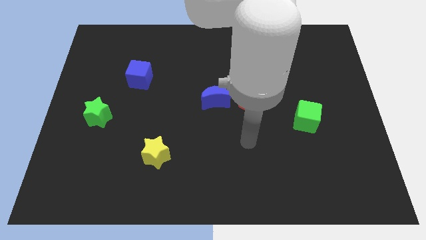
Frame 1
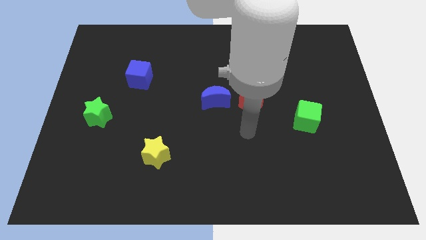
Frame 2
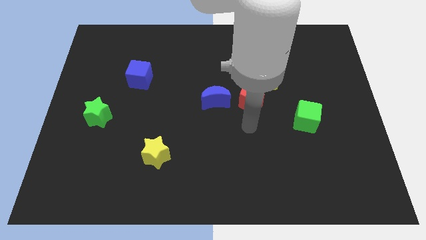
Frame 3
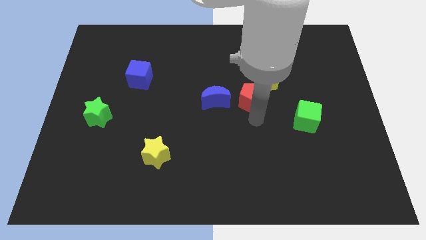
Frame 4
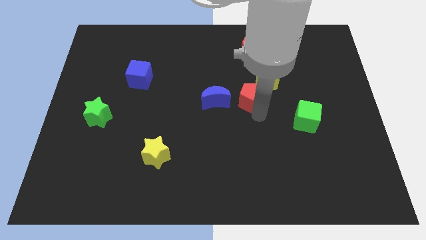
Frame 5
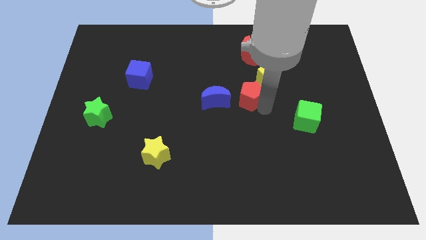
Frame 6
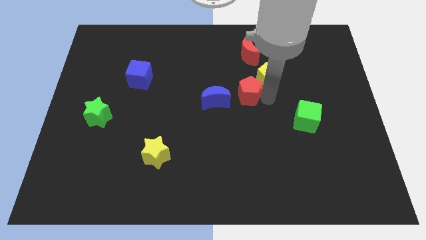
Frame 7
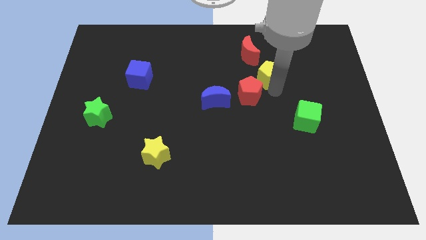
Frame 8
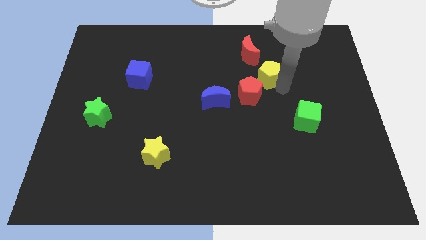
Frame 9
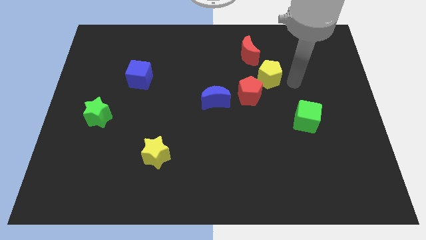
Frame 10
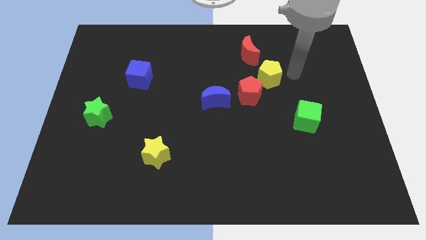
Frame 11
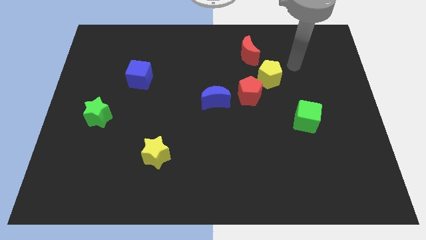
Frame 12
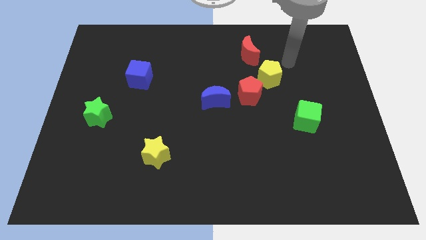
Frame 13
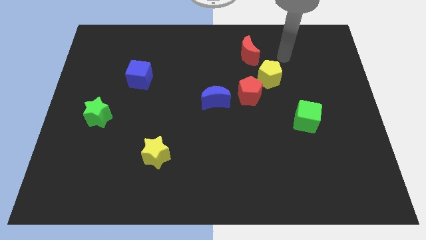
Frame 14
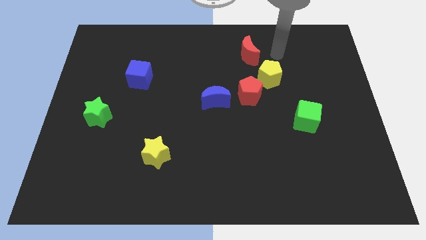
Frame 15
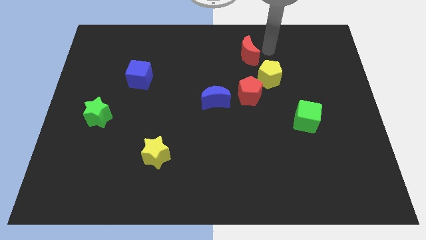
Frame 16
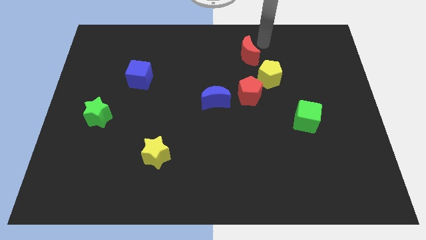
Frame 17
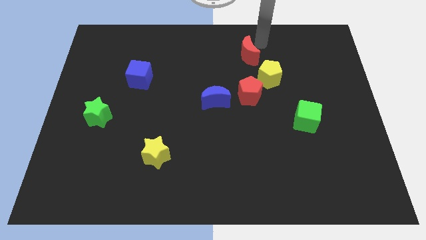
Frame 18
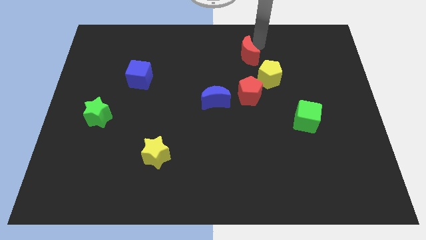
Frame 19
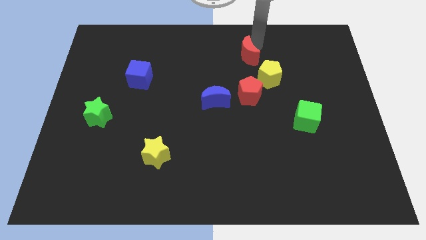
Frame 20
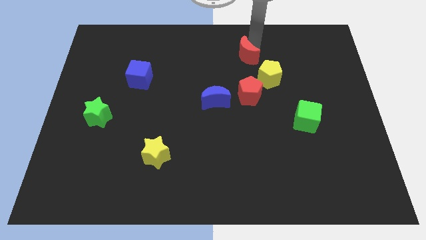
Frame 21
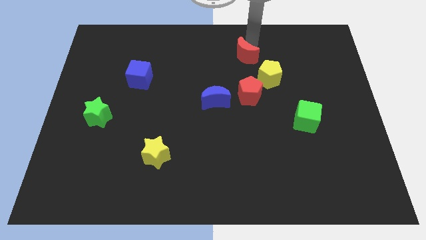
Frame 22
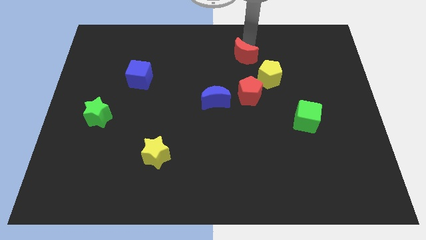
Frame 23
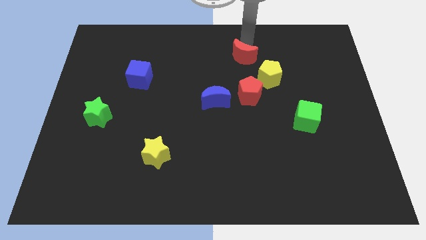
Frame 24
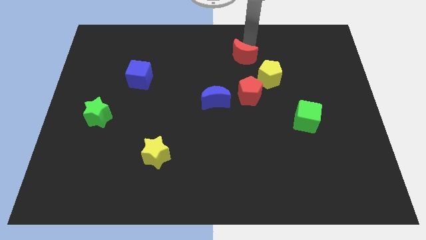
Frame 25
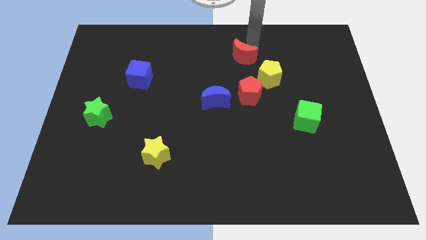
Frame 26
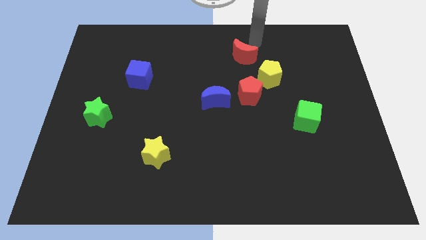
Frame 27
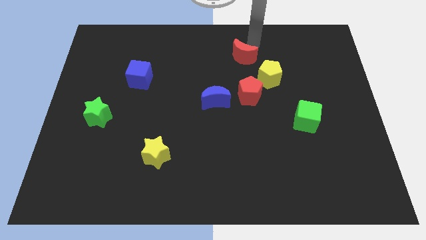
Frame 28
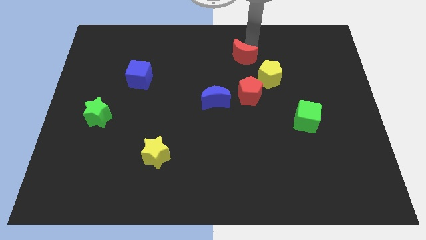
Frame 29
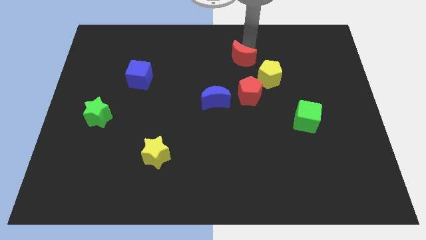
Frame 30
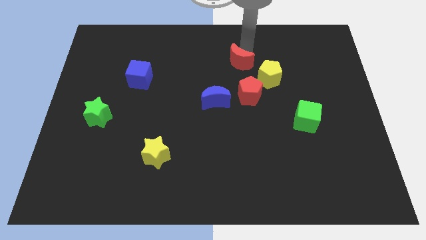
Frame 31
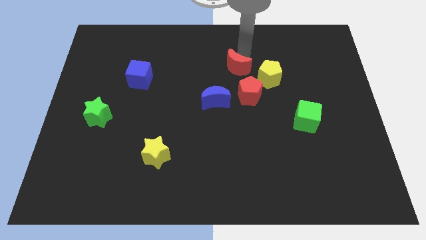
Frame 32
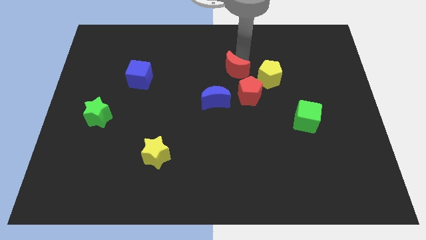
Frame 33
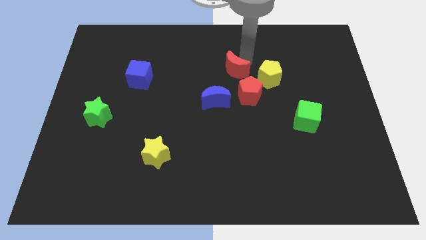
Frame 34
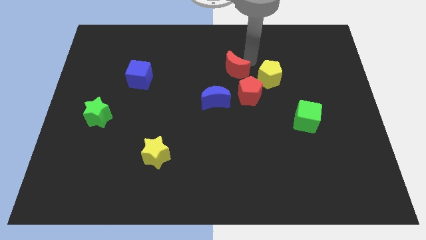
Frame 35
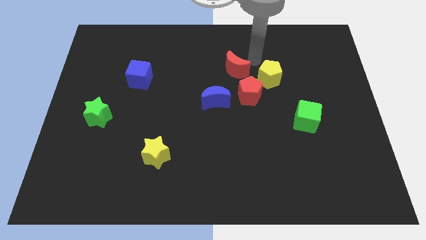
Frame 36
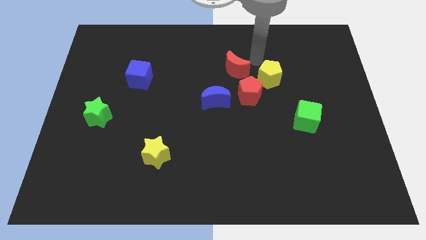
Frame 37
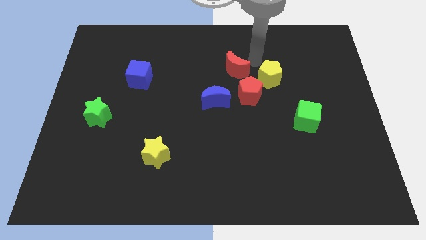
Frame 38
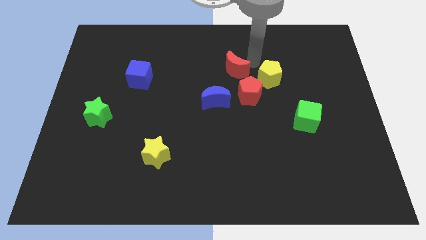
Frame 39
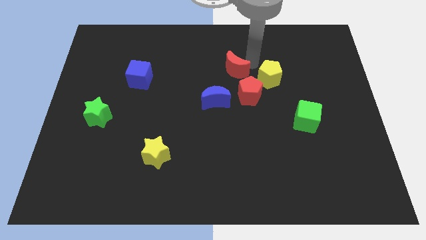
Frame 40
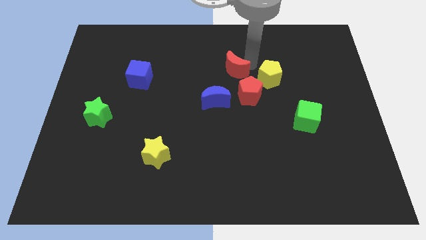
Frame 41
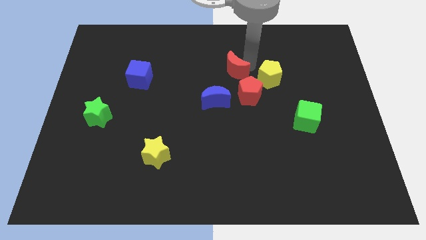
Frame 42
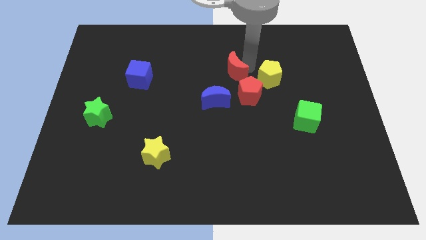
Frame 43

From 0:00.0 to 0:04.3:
push the red moon down and left diagonally slightly

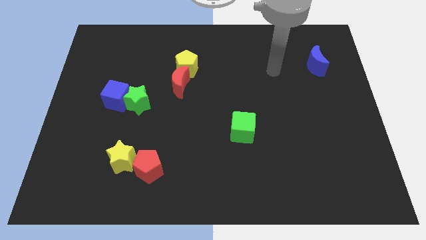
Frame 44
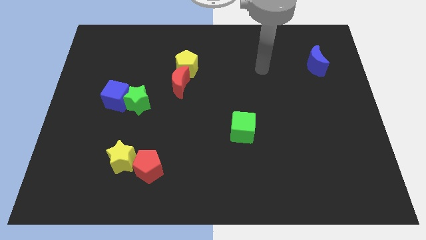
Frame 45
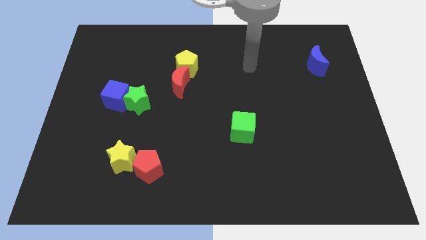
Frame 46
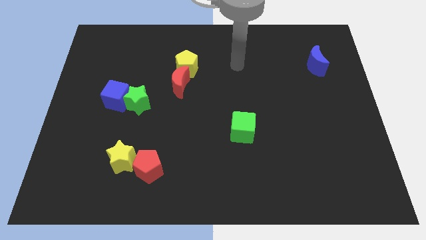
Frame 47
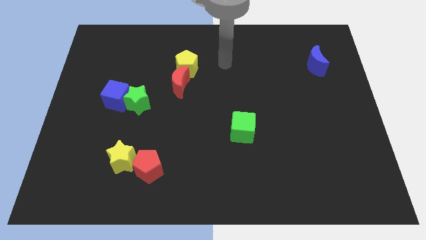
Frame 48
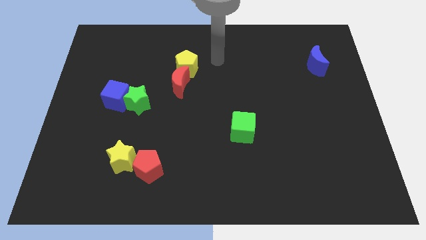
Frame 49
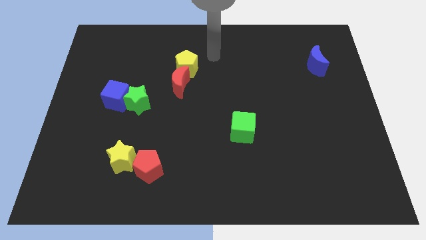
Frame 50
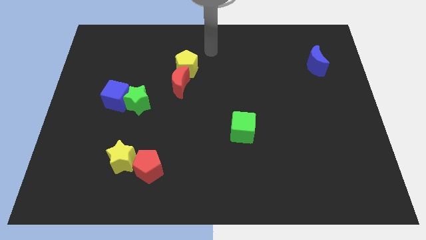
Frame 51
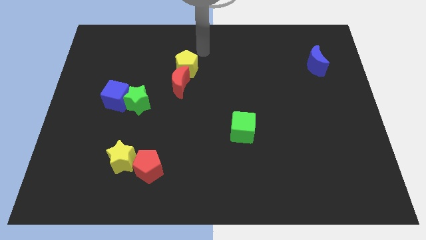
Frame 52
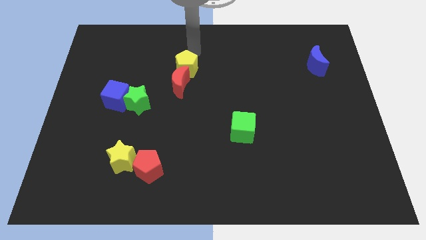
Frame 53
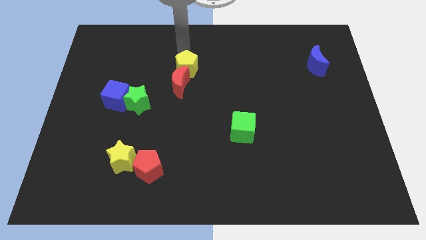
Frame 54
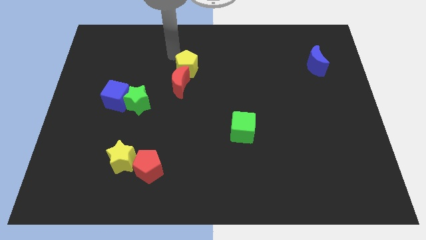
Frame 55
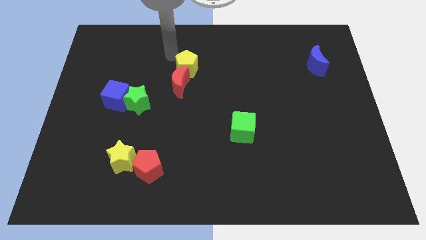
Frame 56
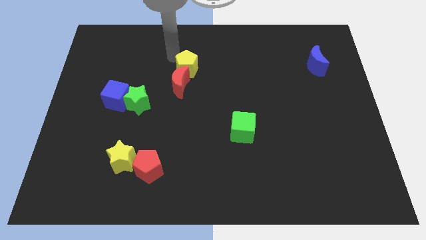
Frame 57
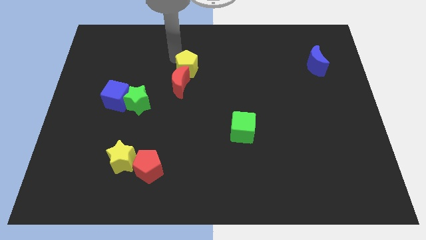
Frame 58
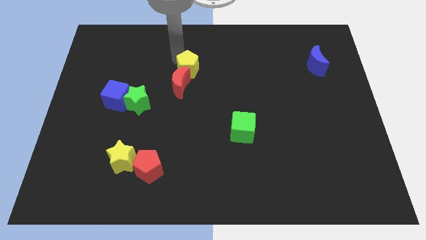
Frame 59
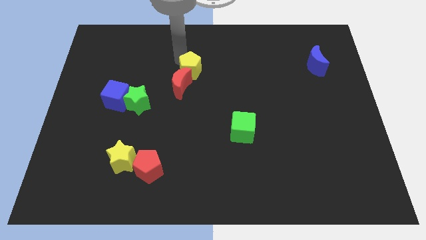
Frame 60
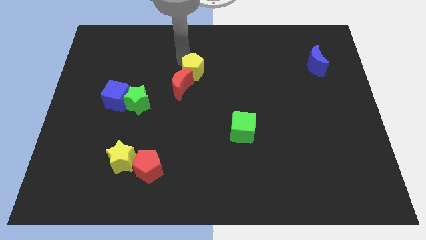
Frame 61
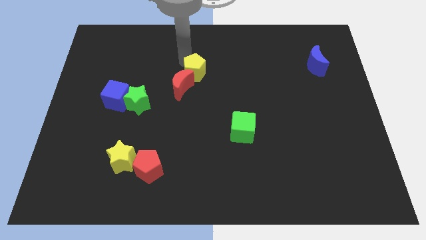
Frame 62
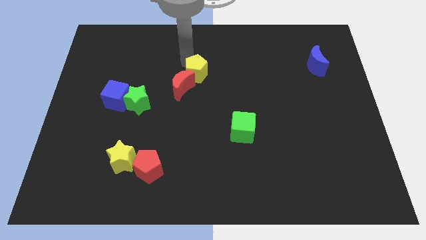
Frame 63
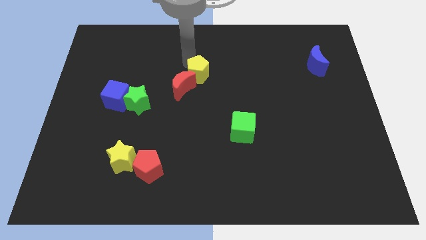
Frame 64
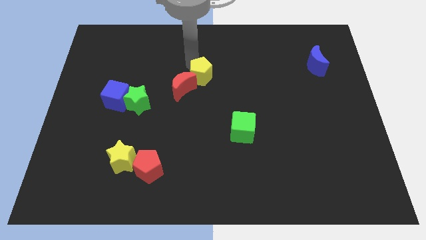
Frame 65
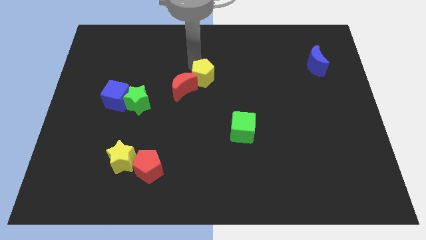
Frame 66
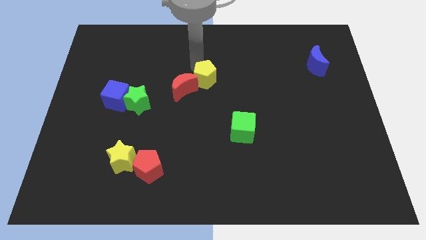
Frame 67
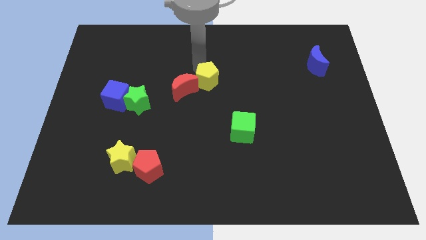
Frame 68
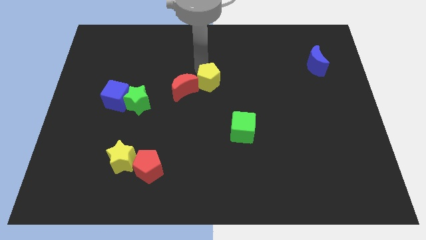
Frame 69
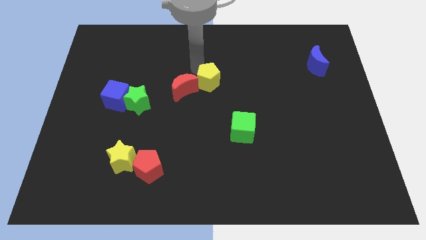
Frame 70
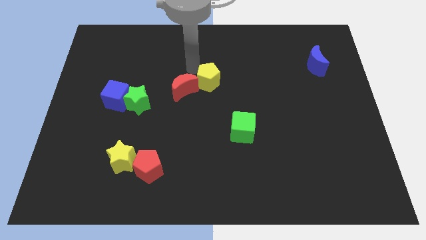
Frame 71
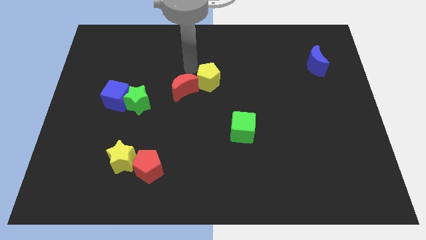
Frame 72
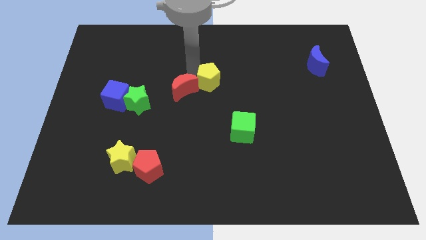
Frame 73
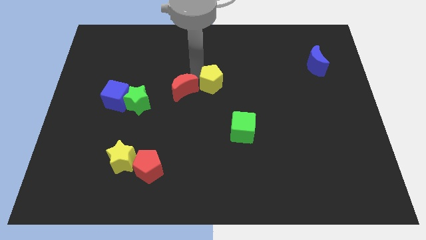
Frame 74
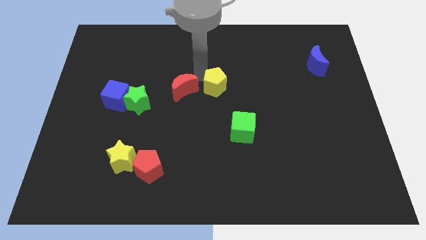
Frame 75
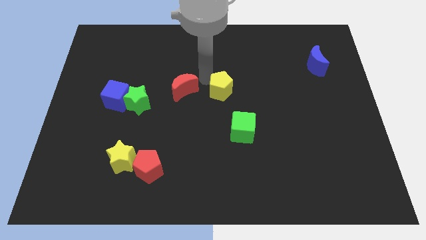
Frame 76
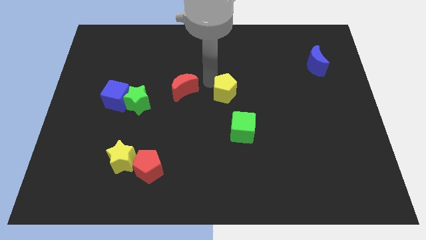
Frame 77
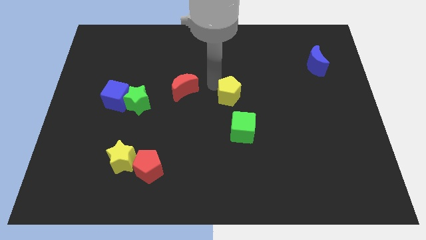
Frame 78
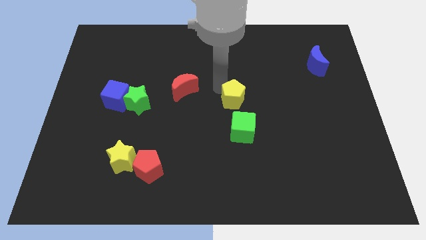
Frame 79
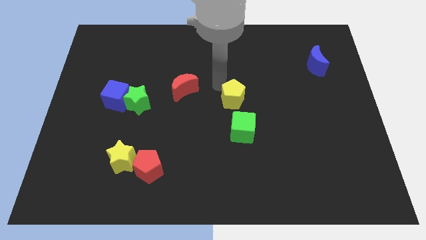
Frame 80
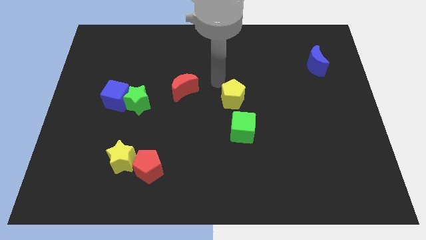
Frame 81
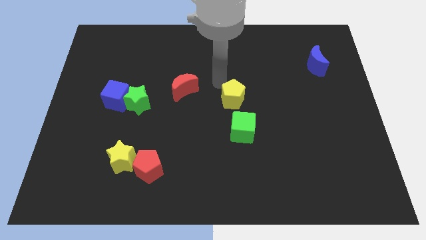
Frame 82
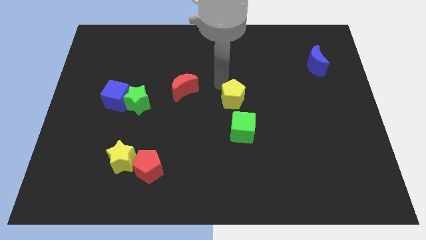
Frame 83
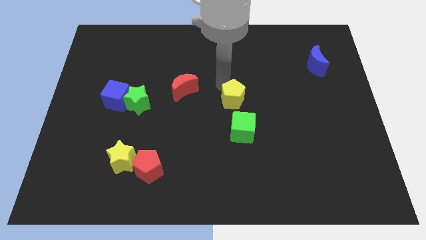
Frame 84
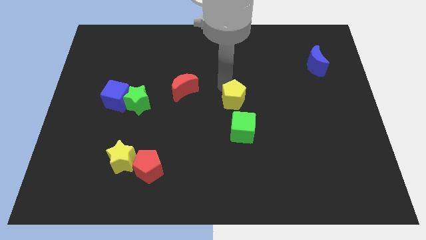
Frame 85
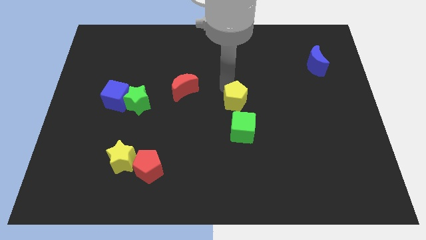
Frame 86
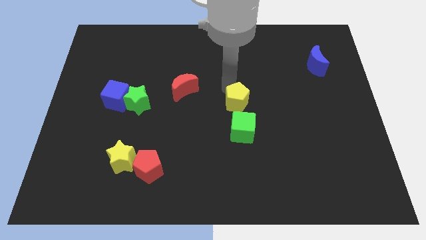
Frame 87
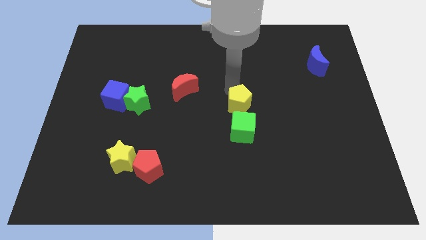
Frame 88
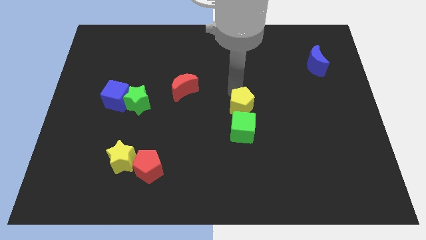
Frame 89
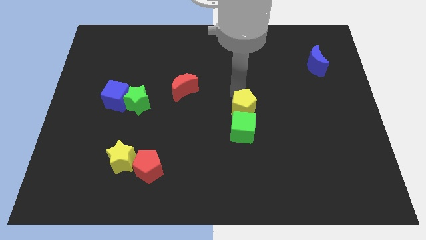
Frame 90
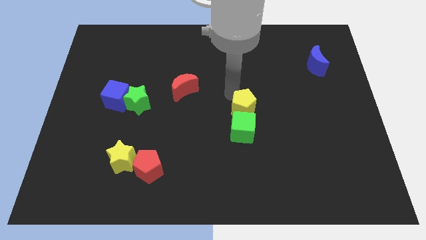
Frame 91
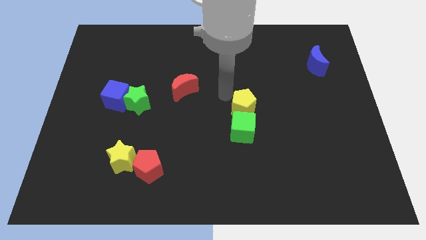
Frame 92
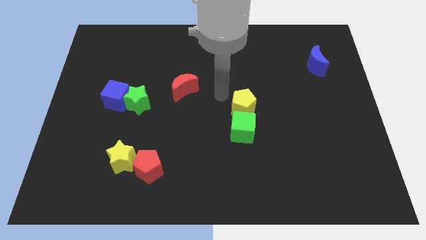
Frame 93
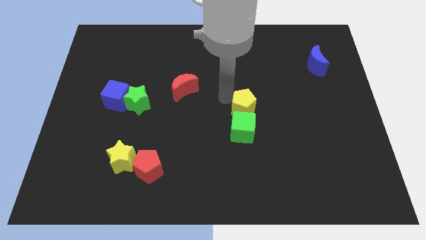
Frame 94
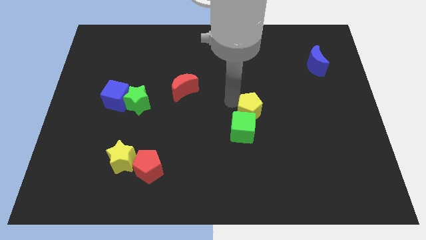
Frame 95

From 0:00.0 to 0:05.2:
move the yellow pentagon downwards and right
